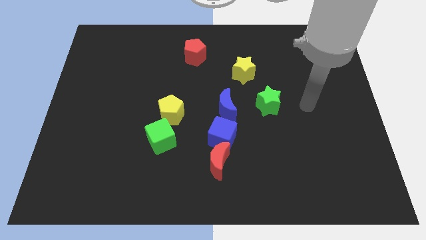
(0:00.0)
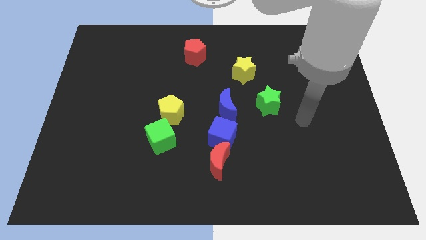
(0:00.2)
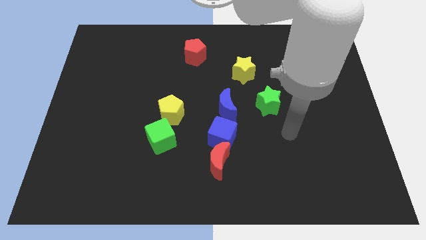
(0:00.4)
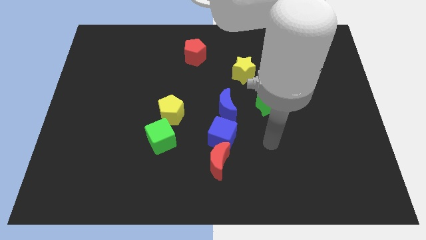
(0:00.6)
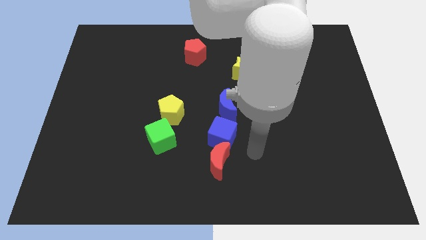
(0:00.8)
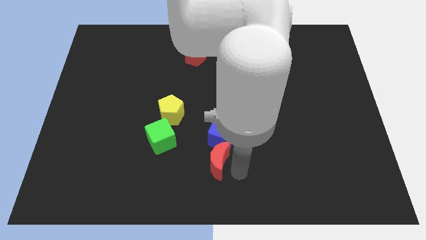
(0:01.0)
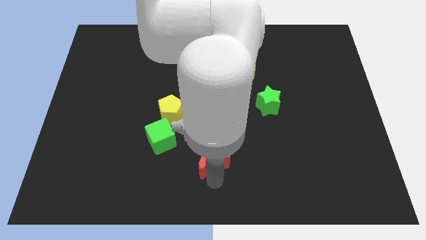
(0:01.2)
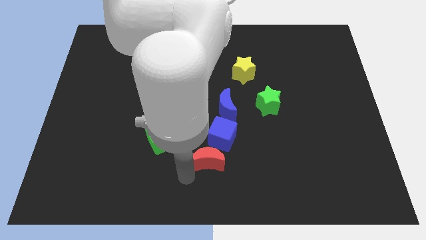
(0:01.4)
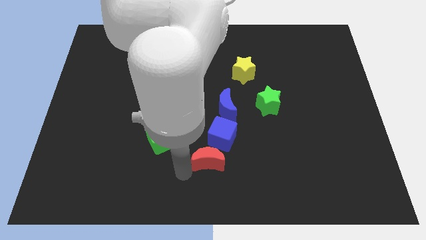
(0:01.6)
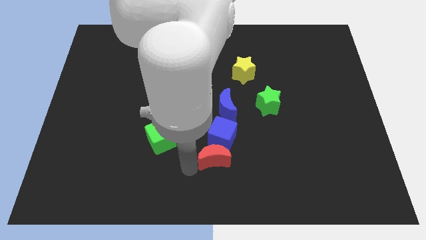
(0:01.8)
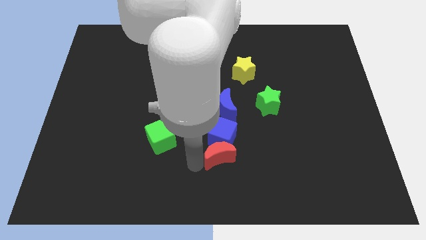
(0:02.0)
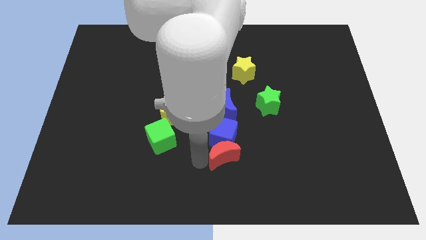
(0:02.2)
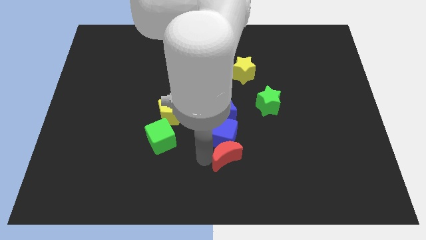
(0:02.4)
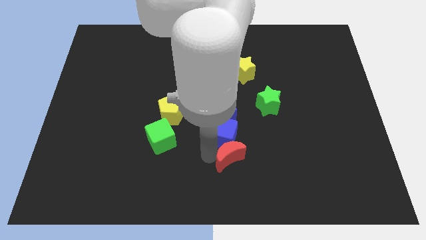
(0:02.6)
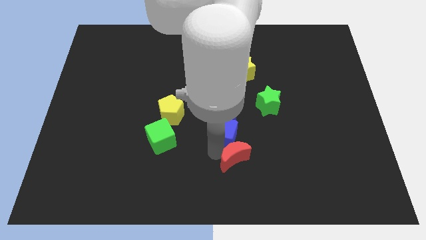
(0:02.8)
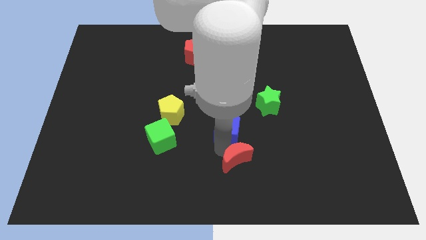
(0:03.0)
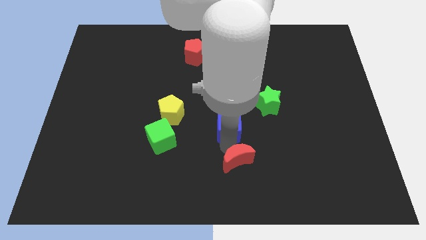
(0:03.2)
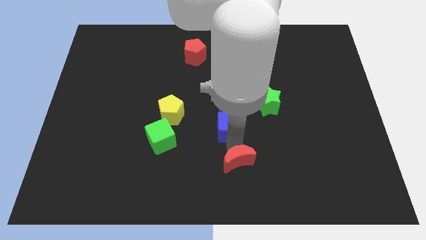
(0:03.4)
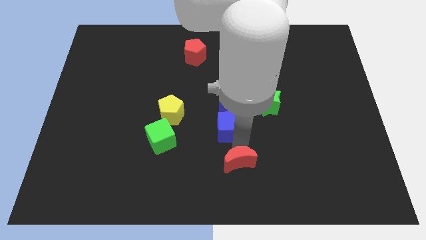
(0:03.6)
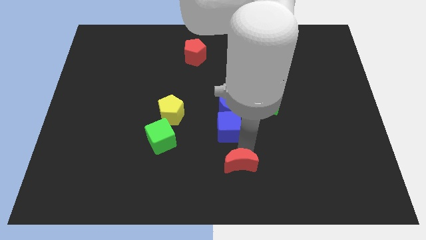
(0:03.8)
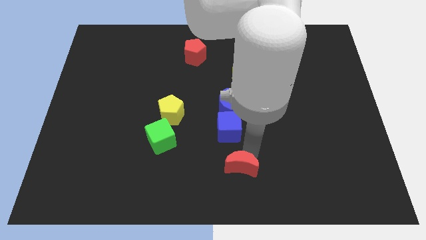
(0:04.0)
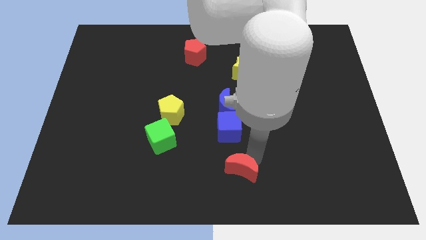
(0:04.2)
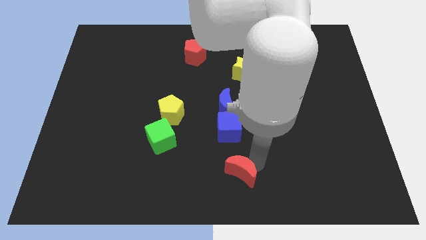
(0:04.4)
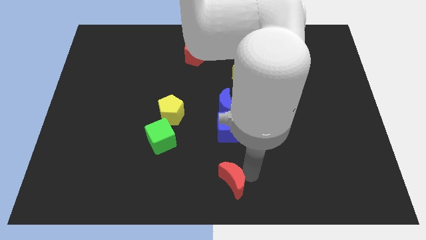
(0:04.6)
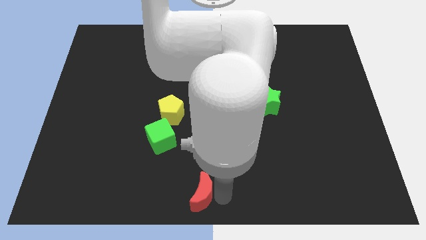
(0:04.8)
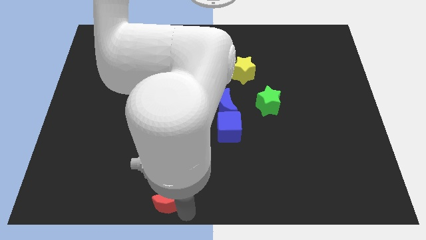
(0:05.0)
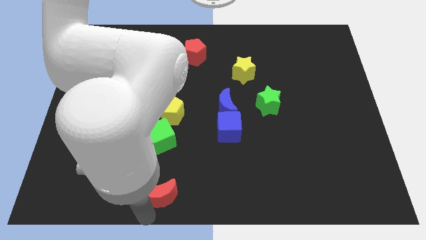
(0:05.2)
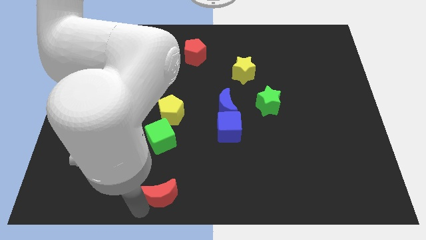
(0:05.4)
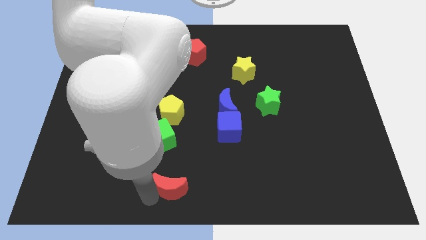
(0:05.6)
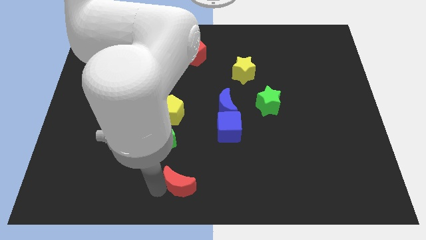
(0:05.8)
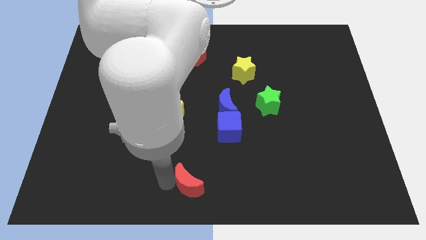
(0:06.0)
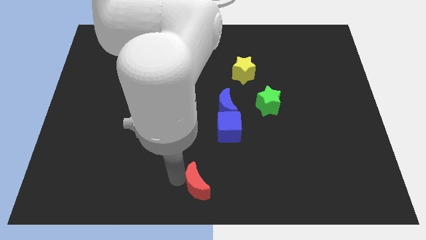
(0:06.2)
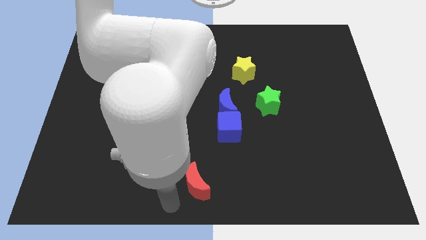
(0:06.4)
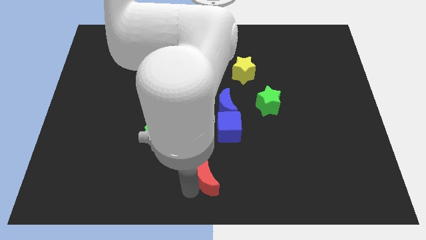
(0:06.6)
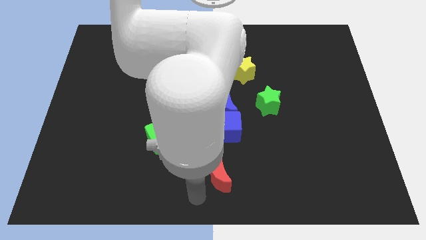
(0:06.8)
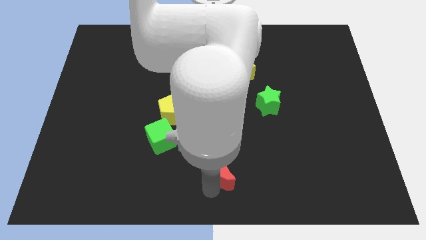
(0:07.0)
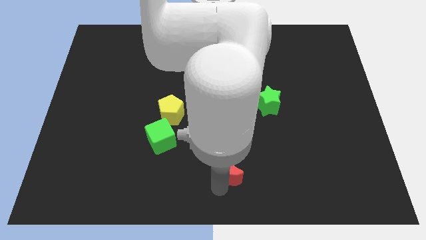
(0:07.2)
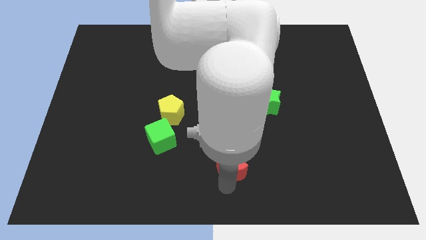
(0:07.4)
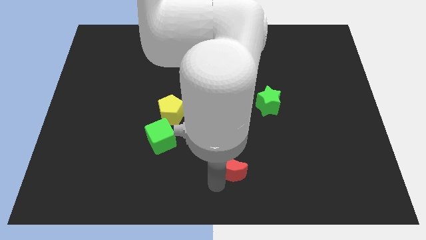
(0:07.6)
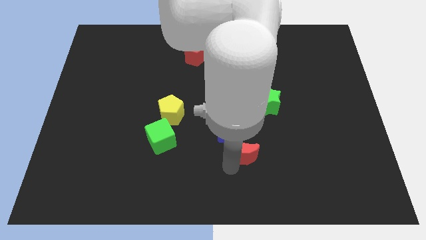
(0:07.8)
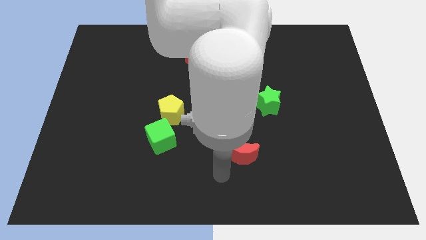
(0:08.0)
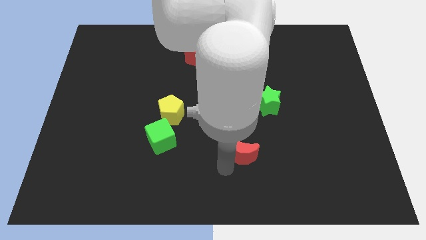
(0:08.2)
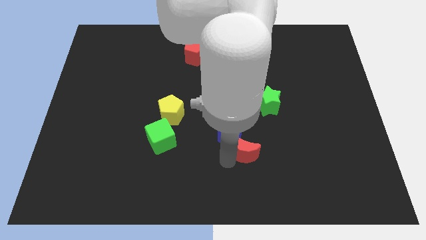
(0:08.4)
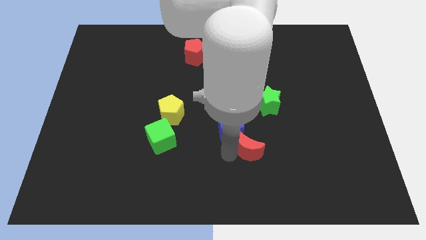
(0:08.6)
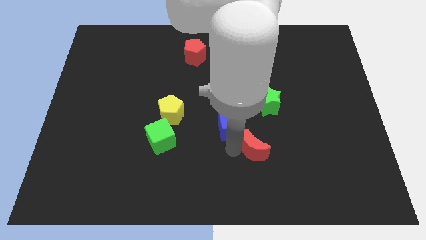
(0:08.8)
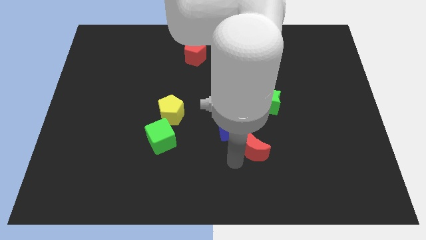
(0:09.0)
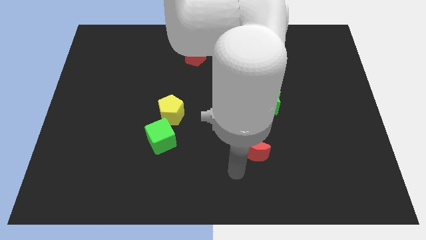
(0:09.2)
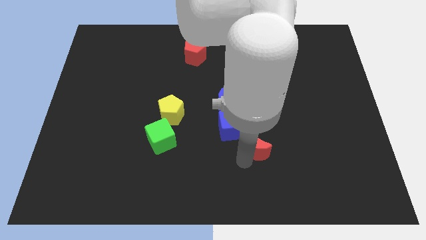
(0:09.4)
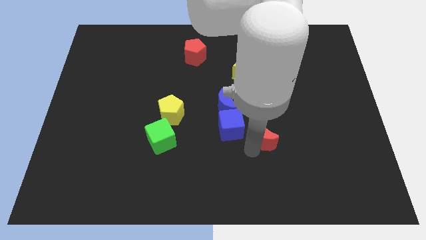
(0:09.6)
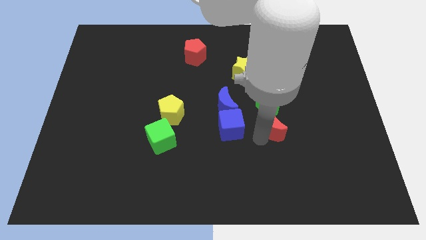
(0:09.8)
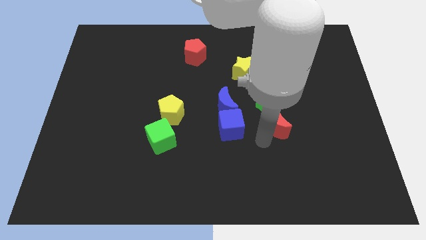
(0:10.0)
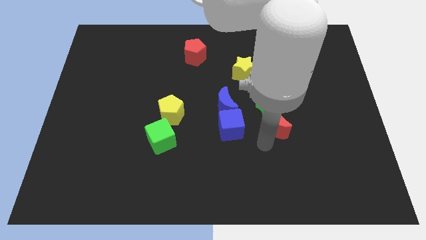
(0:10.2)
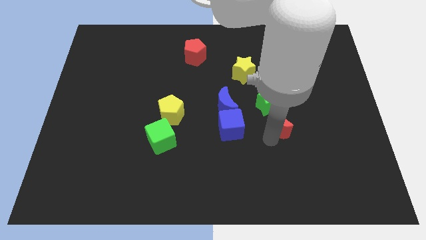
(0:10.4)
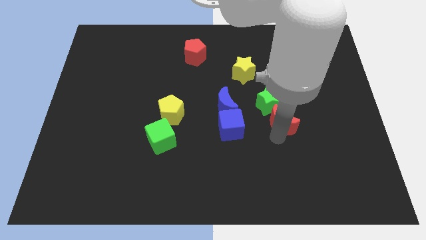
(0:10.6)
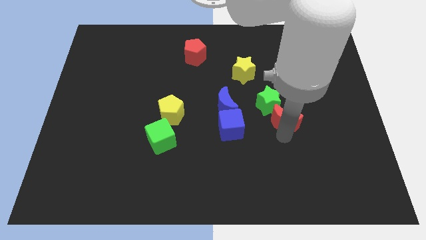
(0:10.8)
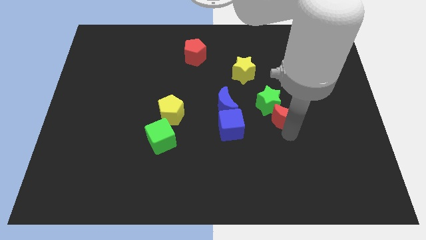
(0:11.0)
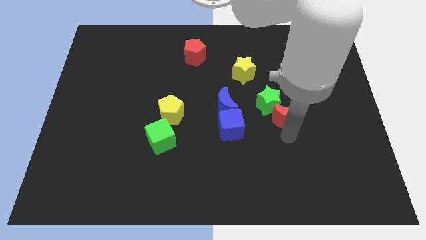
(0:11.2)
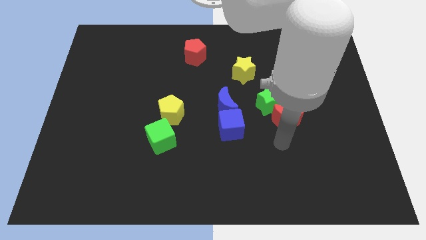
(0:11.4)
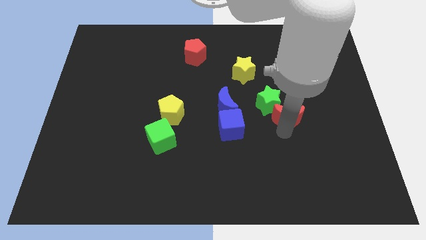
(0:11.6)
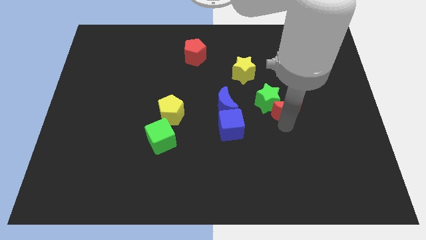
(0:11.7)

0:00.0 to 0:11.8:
push the red moon diagonally upwards and right

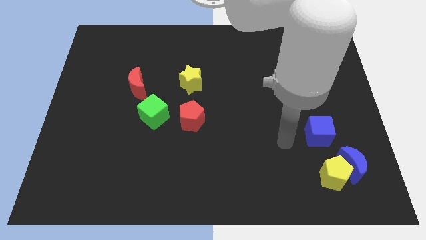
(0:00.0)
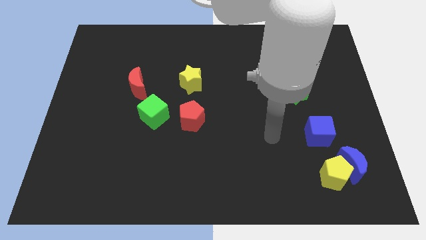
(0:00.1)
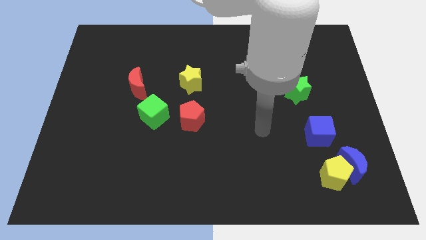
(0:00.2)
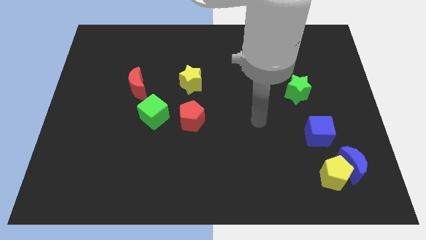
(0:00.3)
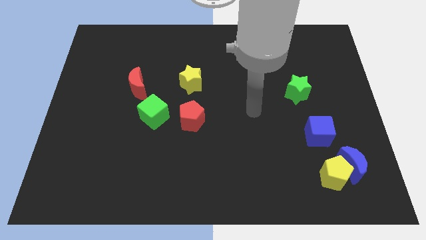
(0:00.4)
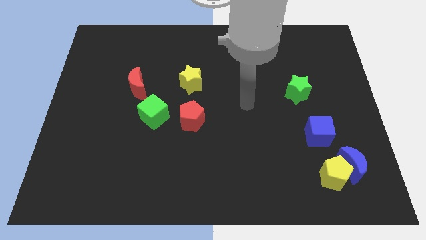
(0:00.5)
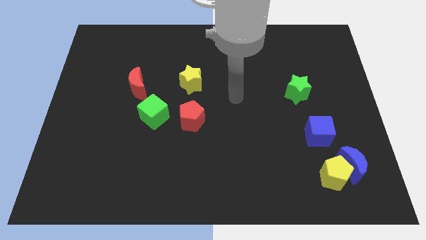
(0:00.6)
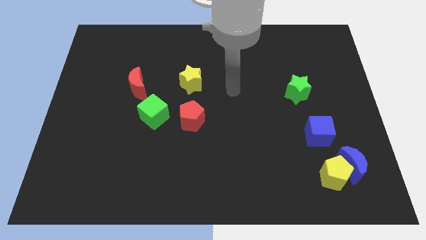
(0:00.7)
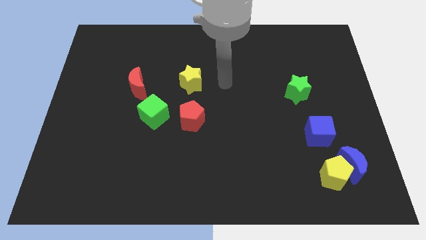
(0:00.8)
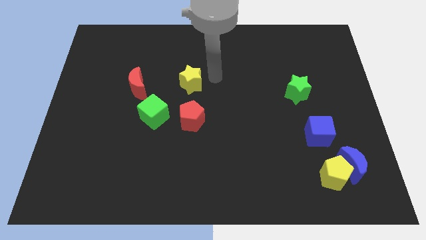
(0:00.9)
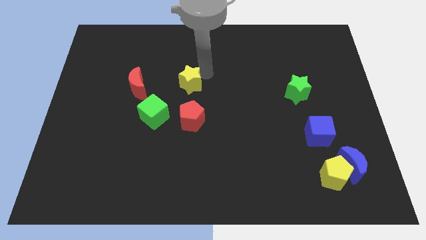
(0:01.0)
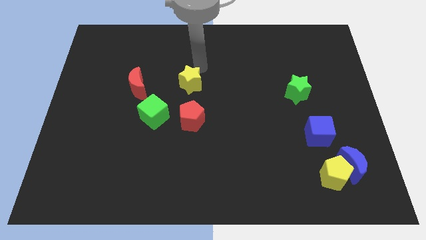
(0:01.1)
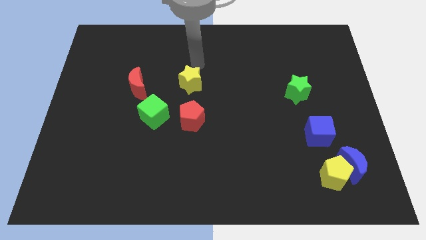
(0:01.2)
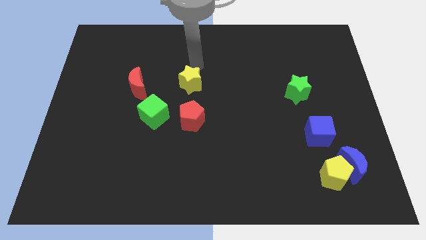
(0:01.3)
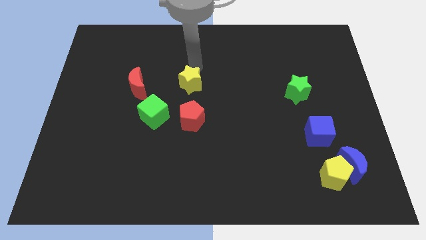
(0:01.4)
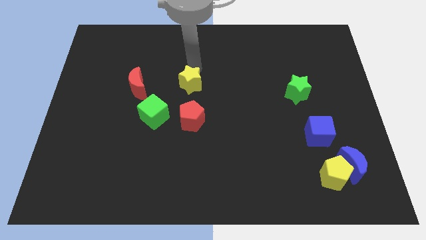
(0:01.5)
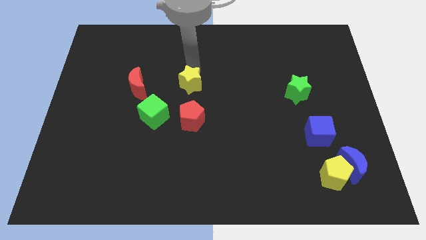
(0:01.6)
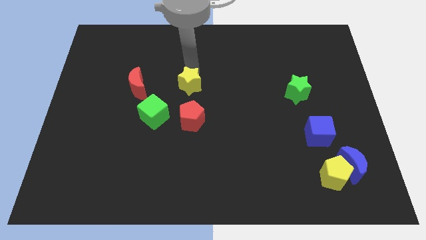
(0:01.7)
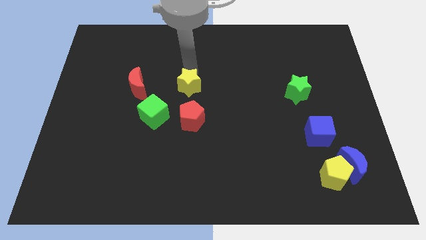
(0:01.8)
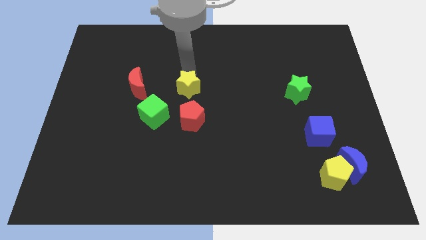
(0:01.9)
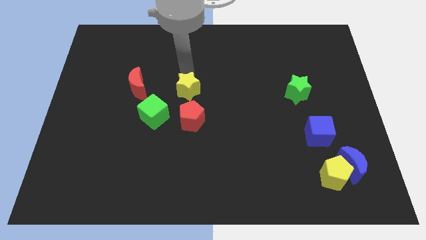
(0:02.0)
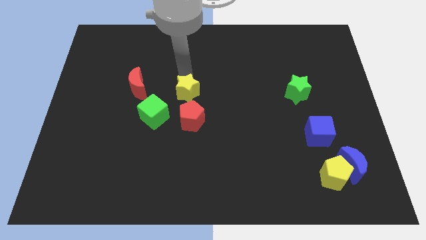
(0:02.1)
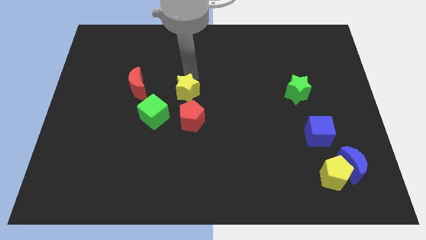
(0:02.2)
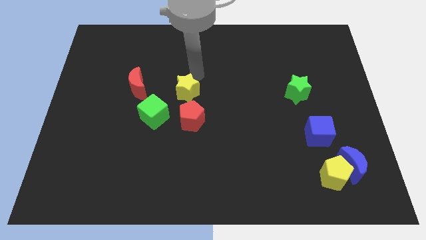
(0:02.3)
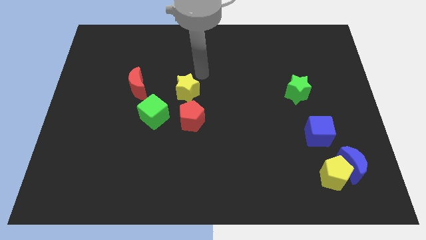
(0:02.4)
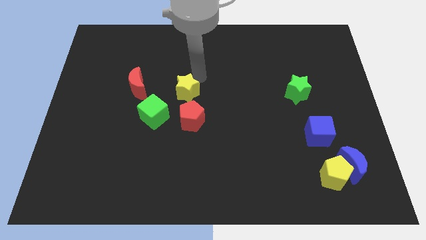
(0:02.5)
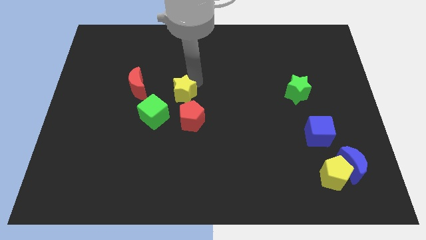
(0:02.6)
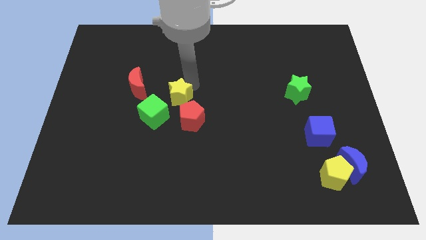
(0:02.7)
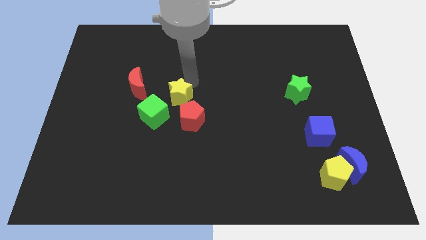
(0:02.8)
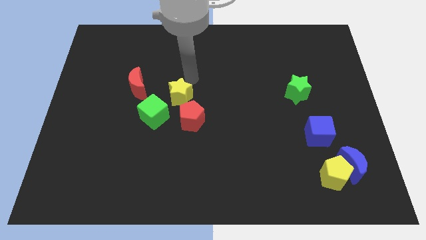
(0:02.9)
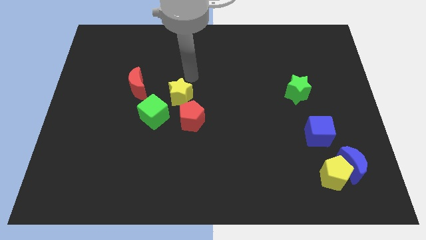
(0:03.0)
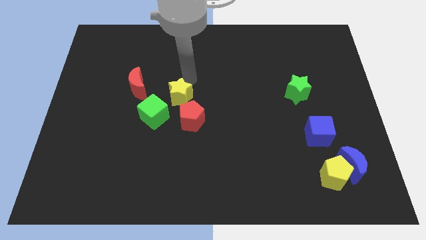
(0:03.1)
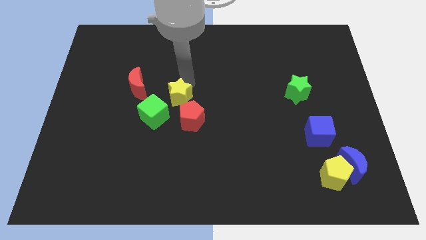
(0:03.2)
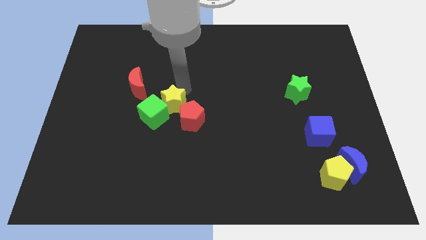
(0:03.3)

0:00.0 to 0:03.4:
move the yellow star diagonally downwards and to the left somewhat
